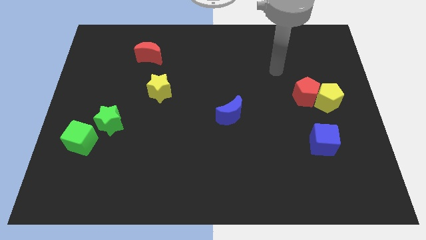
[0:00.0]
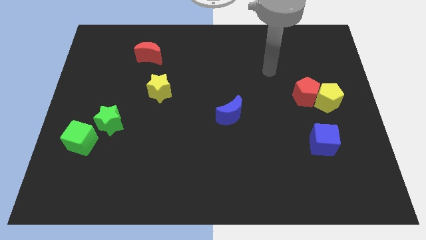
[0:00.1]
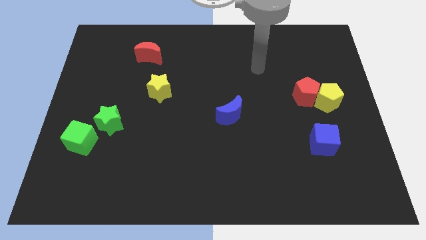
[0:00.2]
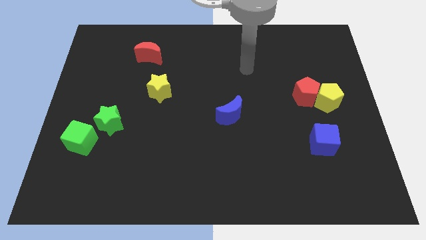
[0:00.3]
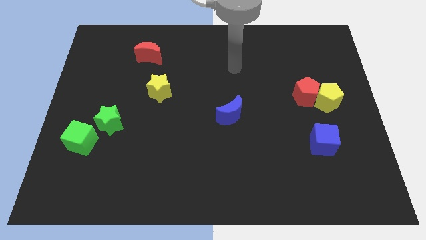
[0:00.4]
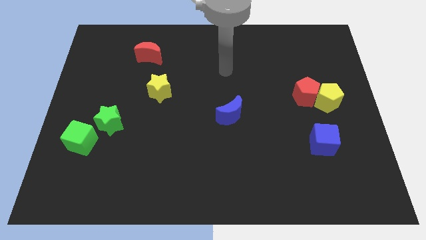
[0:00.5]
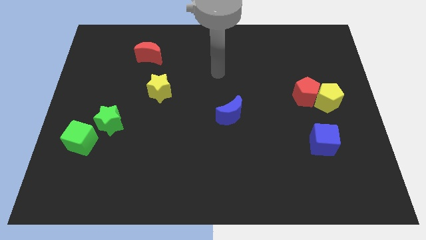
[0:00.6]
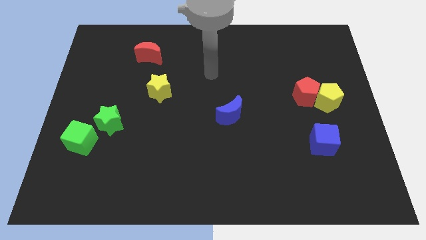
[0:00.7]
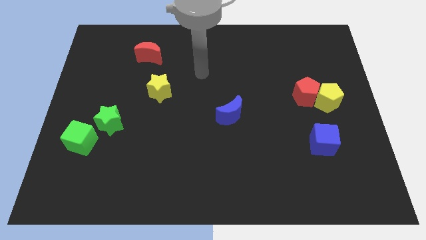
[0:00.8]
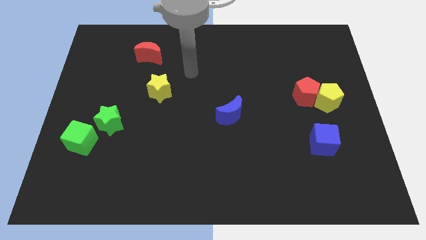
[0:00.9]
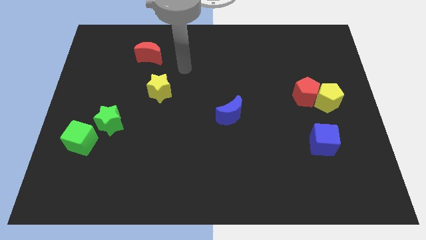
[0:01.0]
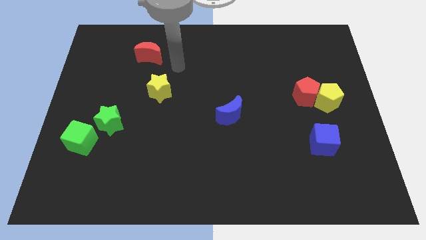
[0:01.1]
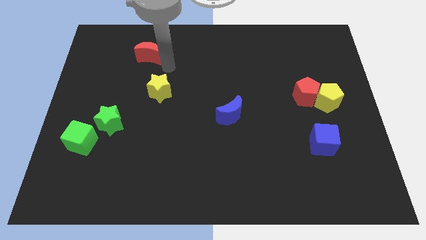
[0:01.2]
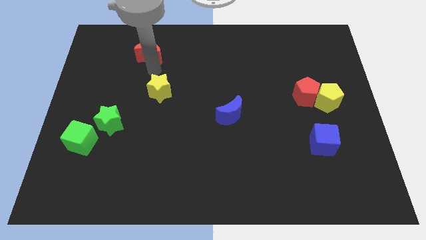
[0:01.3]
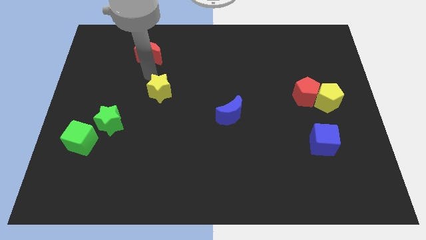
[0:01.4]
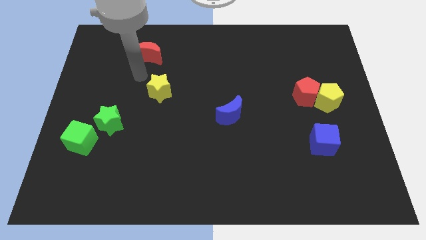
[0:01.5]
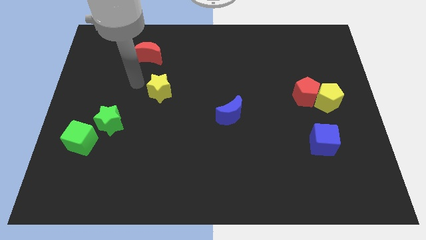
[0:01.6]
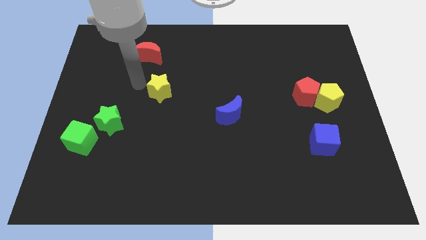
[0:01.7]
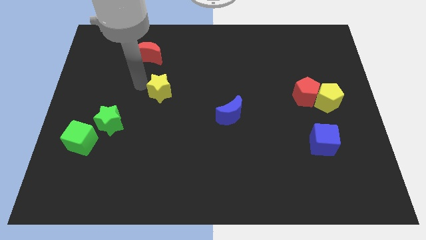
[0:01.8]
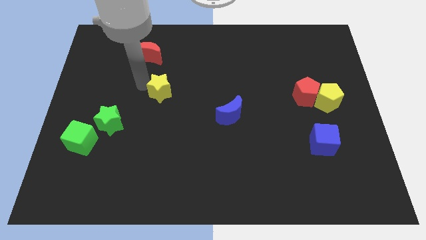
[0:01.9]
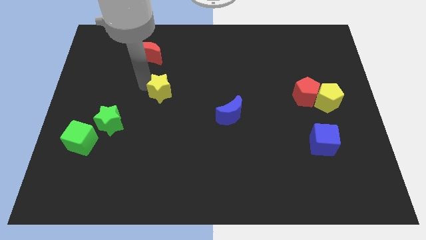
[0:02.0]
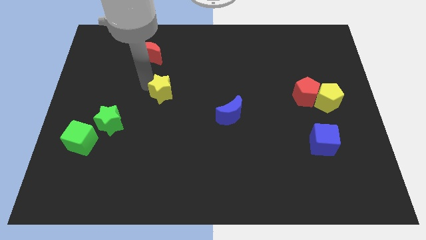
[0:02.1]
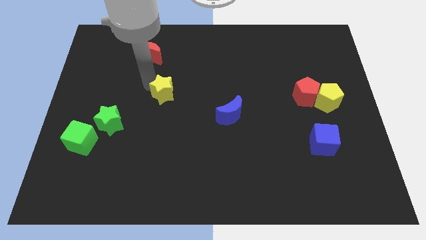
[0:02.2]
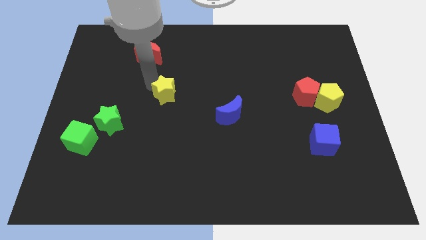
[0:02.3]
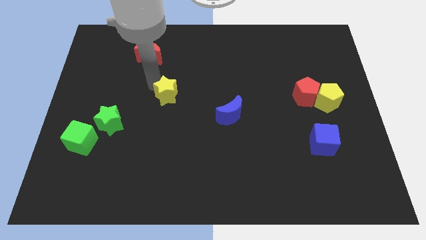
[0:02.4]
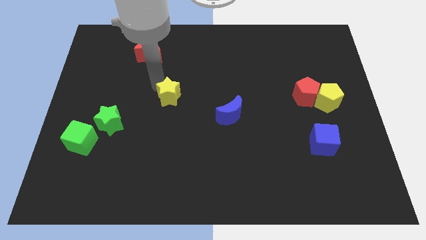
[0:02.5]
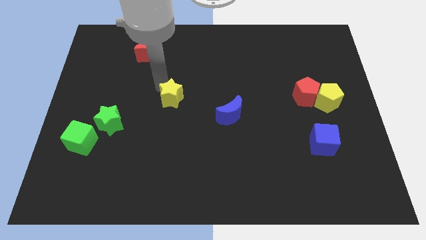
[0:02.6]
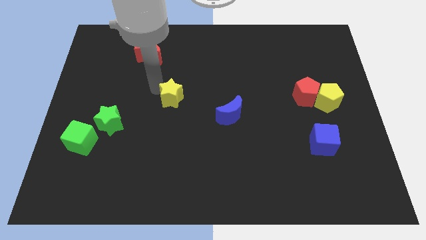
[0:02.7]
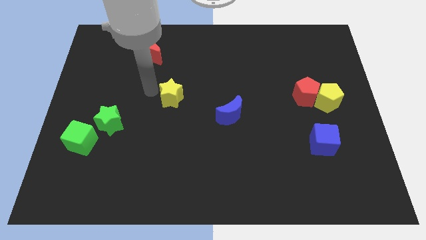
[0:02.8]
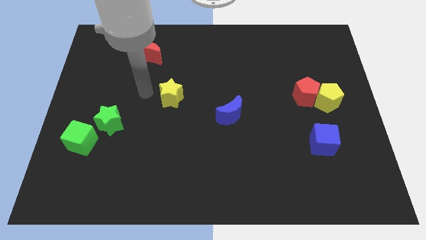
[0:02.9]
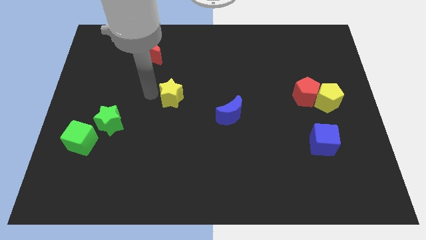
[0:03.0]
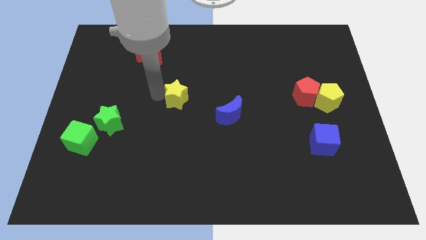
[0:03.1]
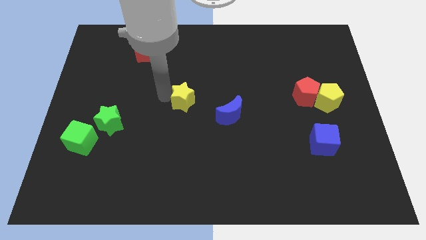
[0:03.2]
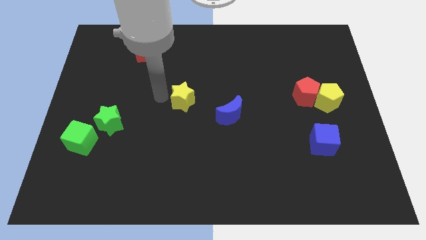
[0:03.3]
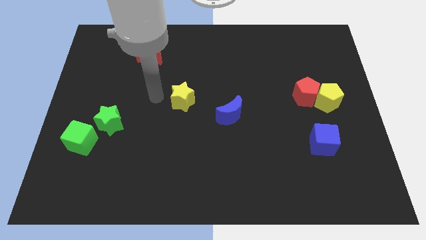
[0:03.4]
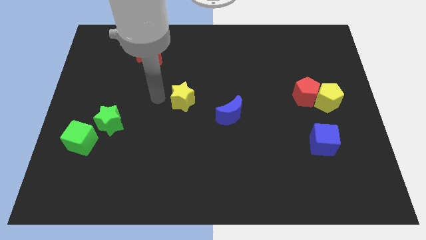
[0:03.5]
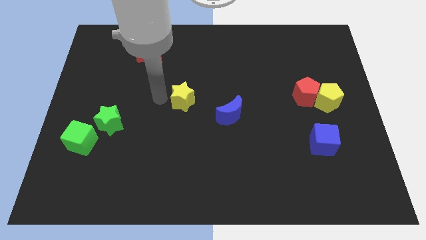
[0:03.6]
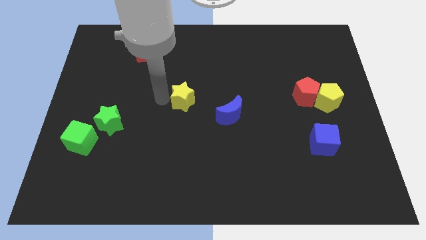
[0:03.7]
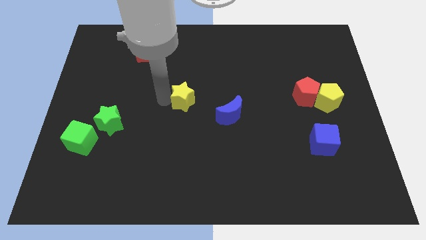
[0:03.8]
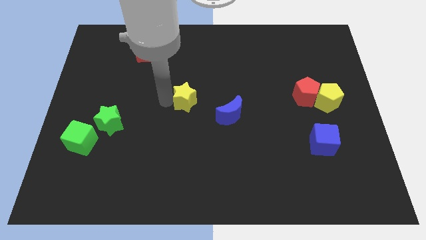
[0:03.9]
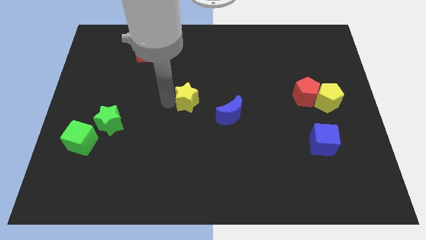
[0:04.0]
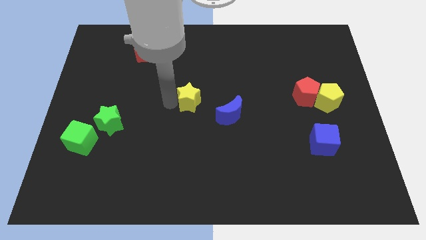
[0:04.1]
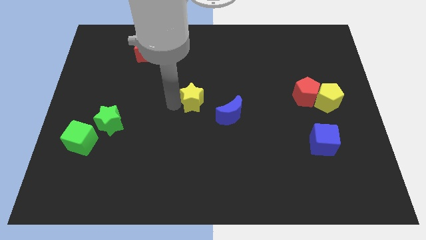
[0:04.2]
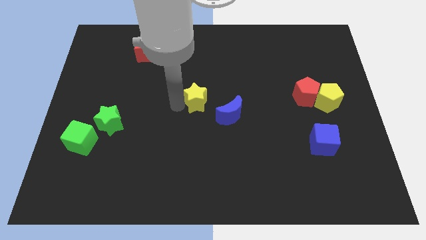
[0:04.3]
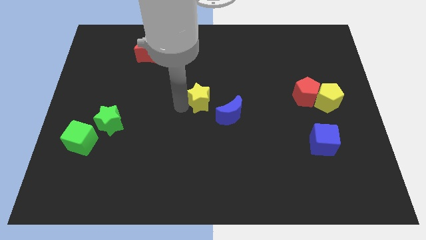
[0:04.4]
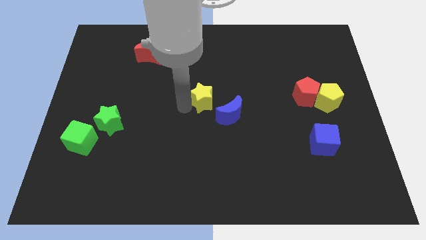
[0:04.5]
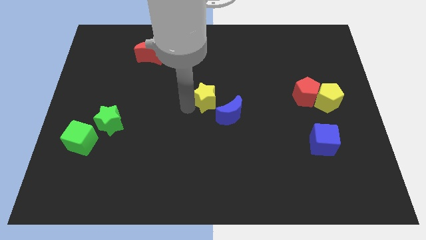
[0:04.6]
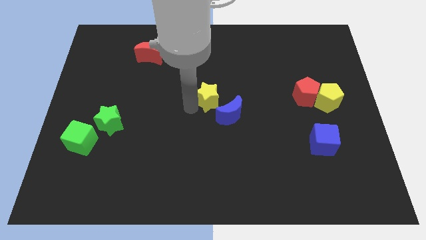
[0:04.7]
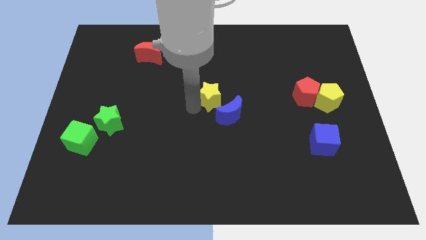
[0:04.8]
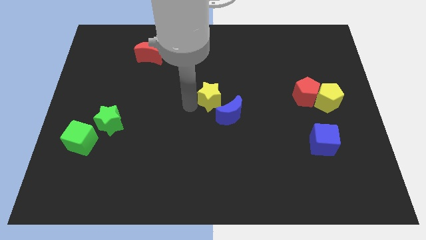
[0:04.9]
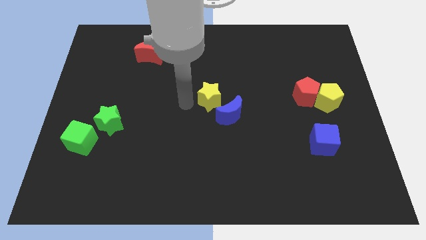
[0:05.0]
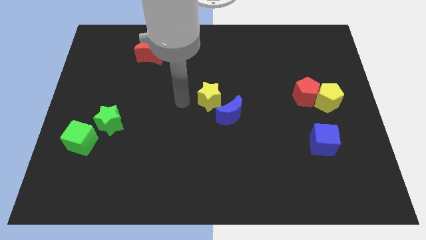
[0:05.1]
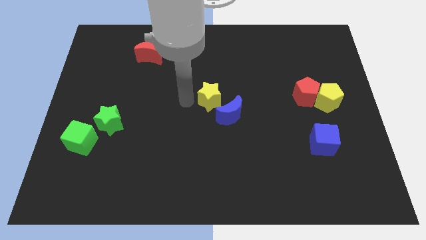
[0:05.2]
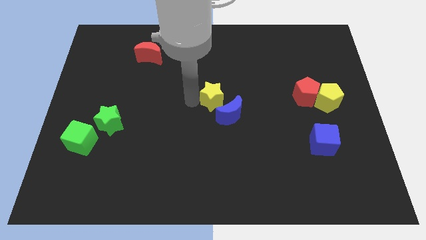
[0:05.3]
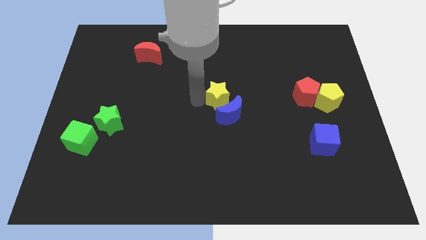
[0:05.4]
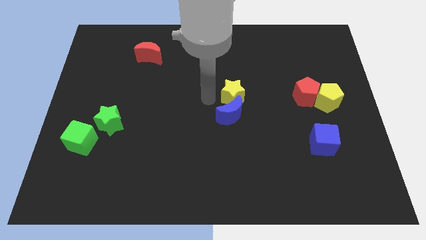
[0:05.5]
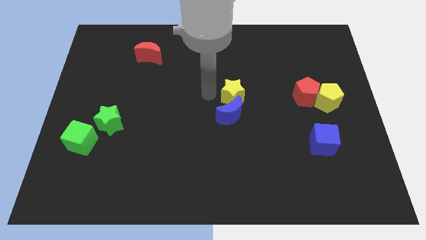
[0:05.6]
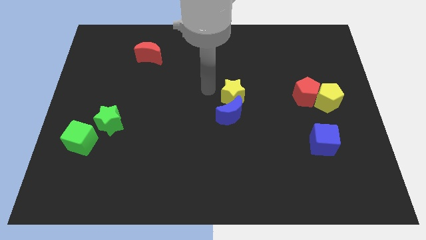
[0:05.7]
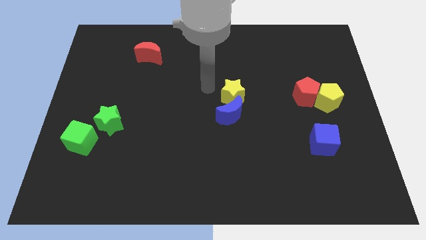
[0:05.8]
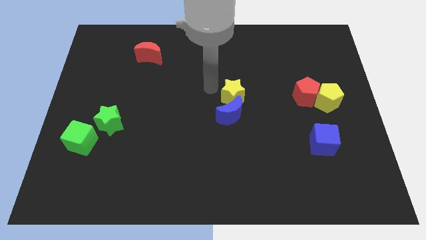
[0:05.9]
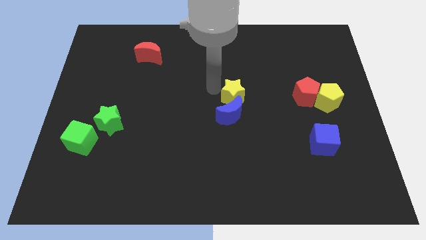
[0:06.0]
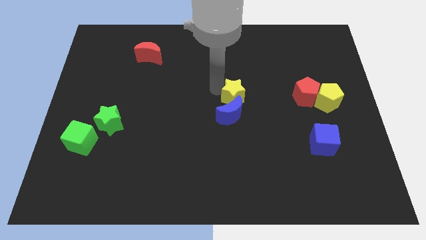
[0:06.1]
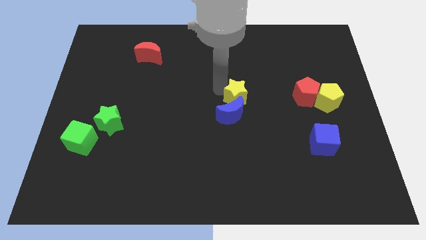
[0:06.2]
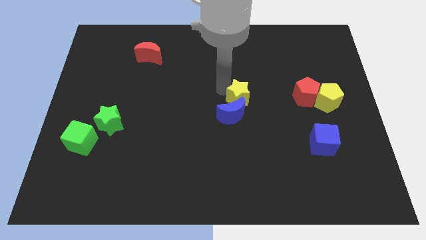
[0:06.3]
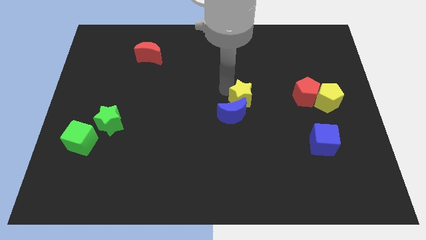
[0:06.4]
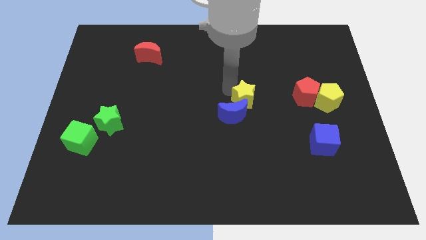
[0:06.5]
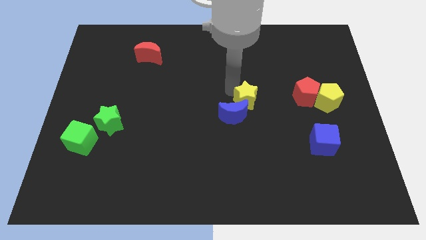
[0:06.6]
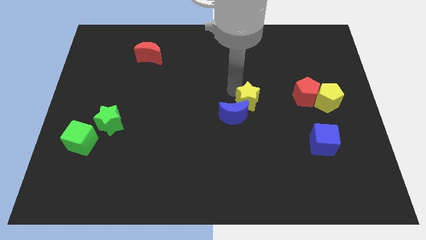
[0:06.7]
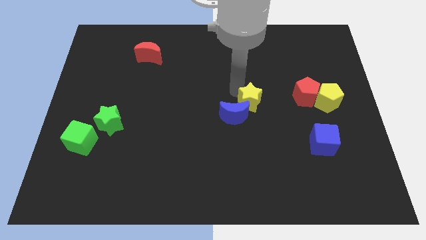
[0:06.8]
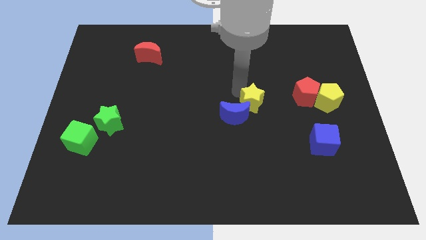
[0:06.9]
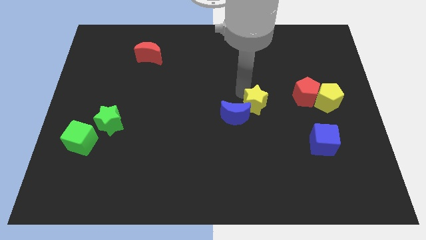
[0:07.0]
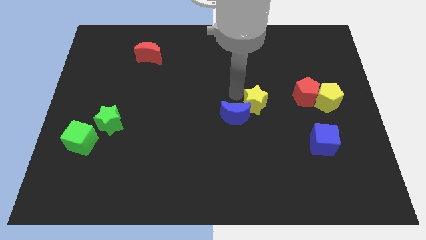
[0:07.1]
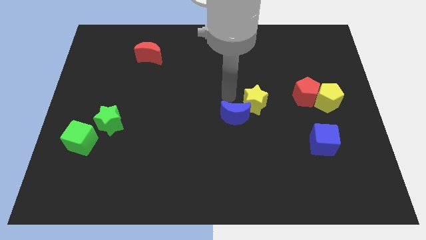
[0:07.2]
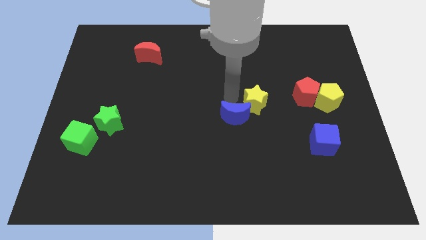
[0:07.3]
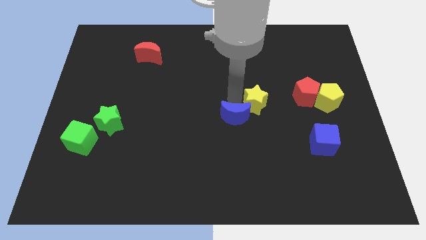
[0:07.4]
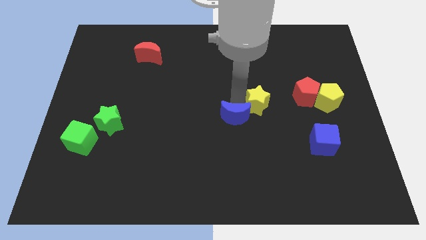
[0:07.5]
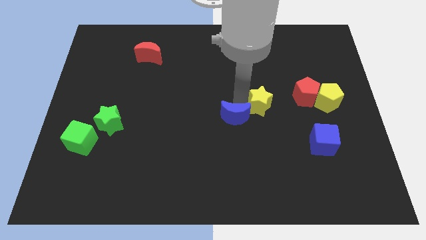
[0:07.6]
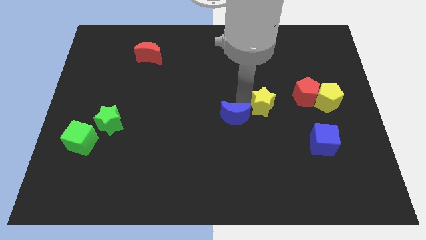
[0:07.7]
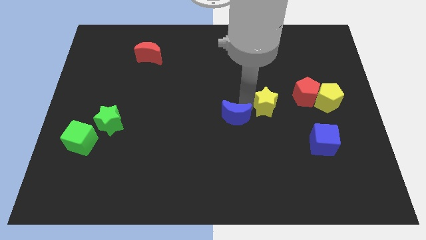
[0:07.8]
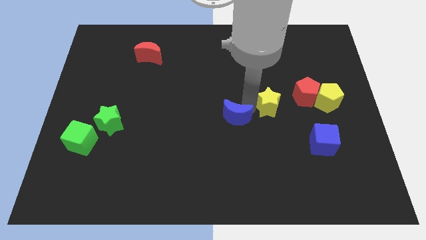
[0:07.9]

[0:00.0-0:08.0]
move the yellow star to the bottom left side of the red pentagon
